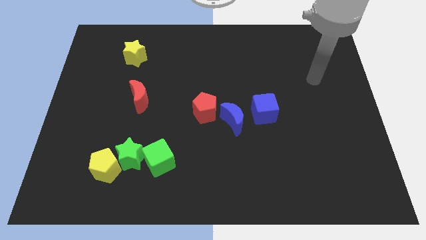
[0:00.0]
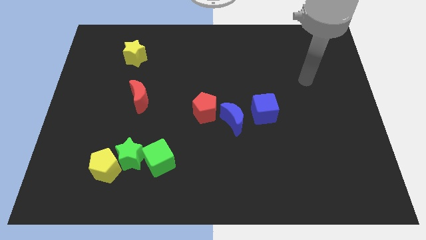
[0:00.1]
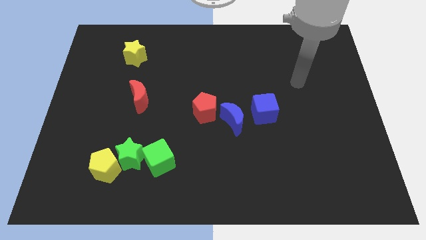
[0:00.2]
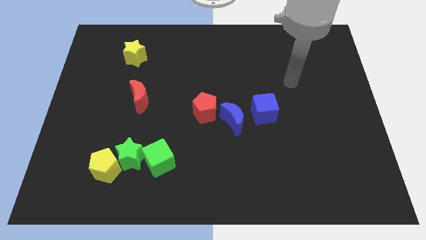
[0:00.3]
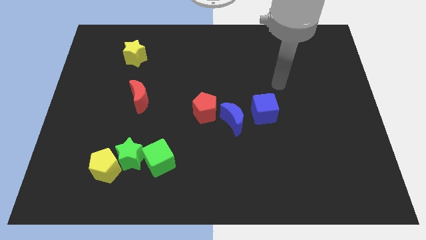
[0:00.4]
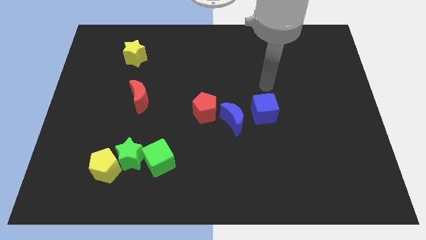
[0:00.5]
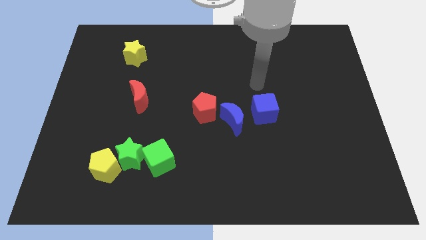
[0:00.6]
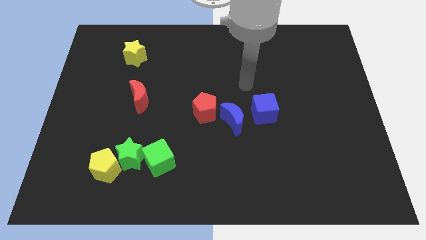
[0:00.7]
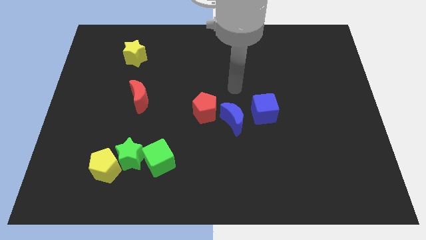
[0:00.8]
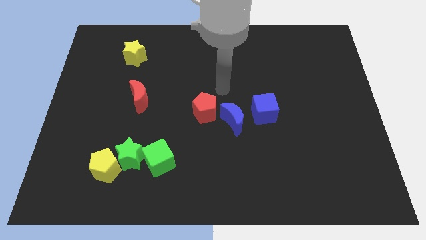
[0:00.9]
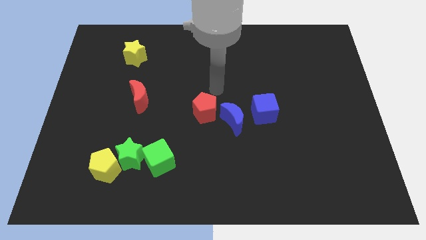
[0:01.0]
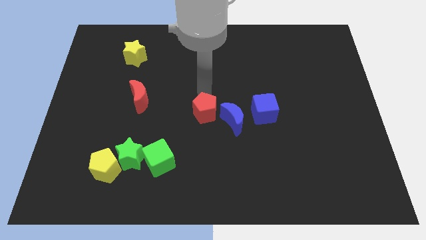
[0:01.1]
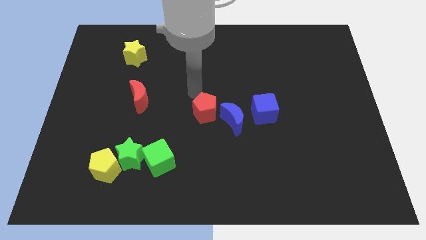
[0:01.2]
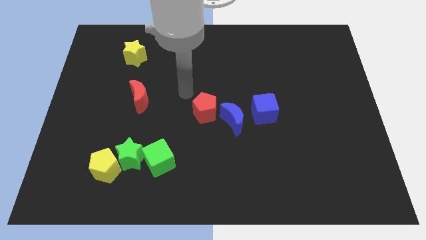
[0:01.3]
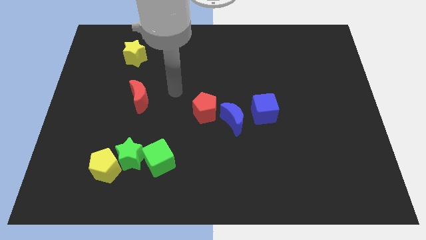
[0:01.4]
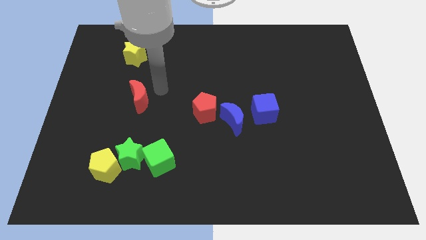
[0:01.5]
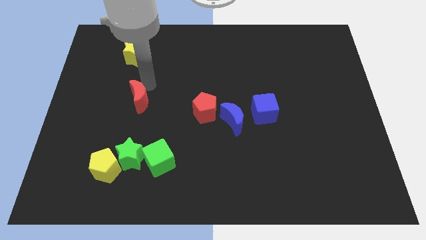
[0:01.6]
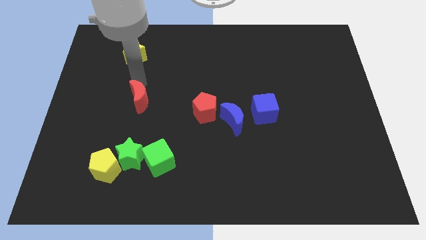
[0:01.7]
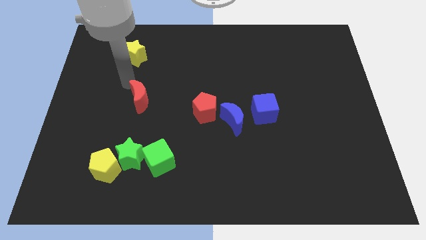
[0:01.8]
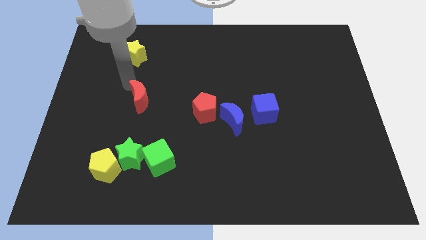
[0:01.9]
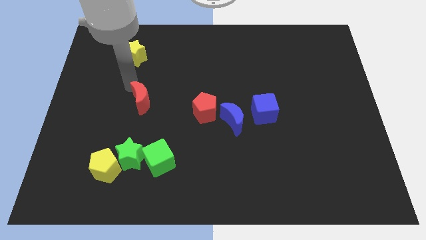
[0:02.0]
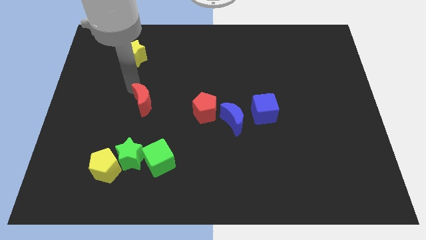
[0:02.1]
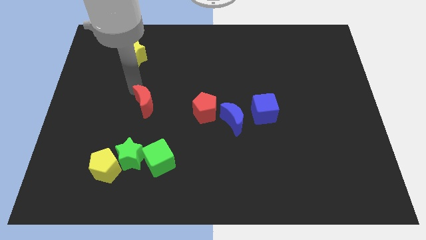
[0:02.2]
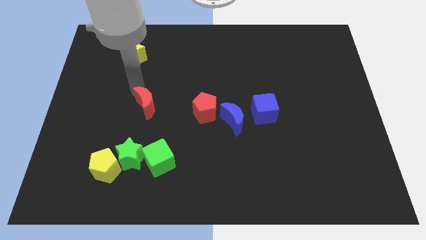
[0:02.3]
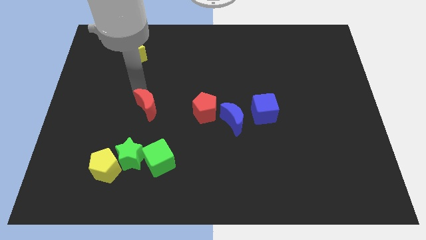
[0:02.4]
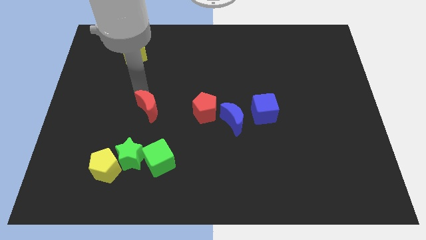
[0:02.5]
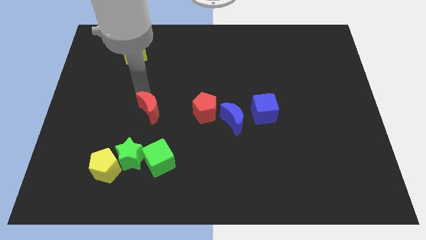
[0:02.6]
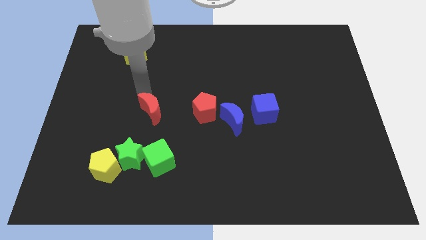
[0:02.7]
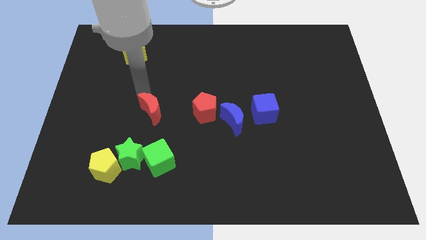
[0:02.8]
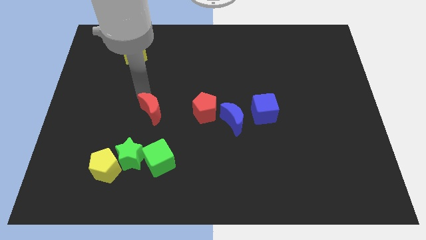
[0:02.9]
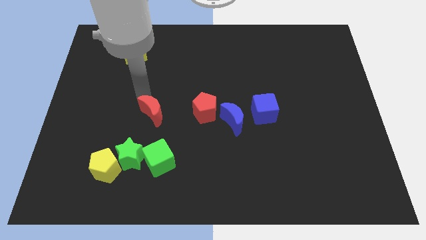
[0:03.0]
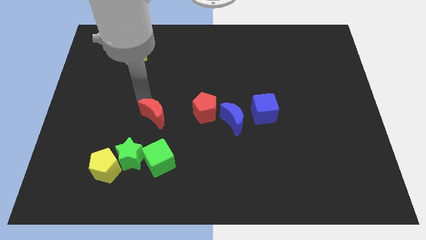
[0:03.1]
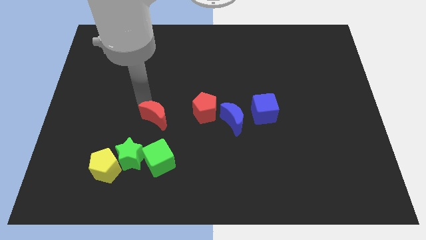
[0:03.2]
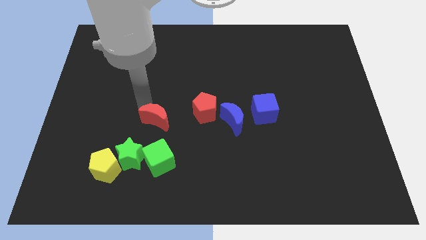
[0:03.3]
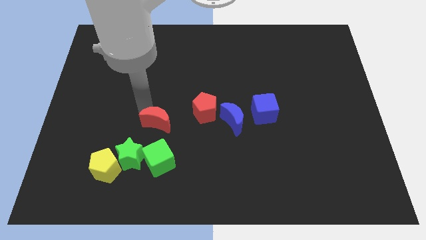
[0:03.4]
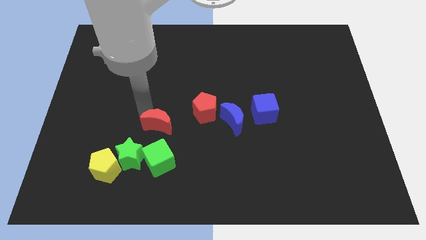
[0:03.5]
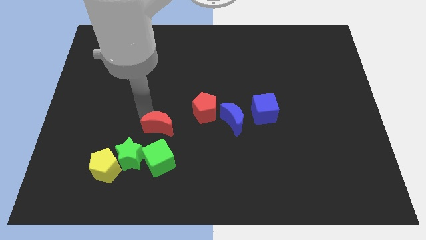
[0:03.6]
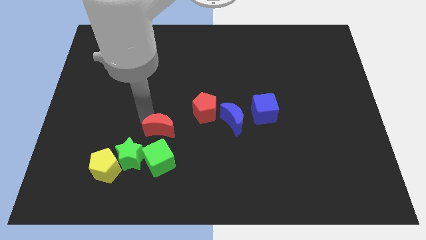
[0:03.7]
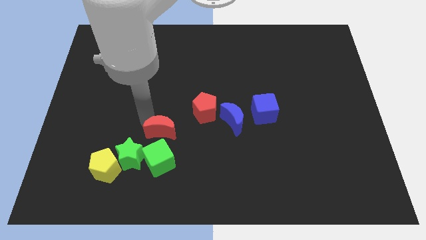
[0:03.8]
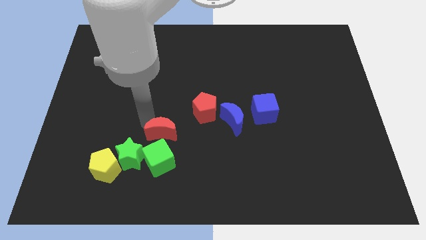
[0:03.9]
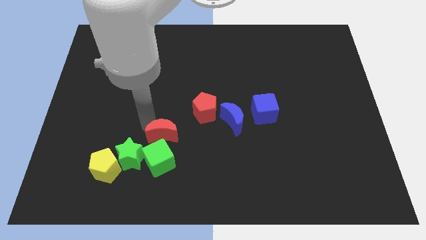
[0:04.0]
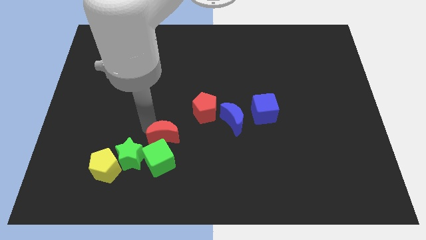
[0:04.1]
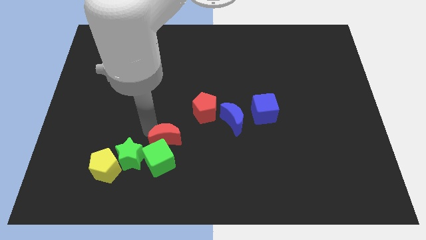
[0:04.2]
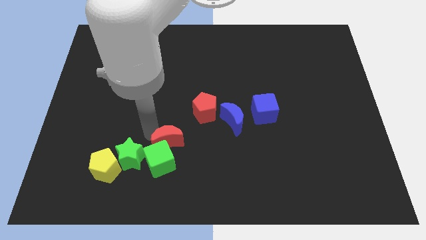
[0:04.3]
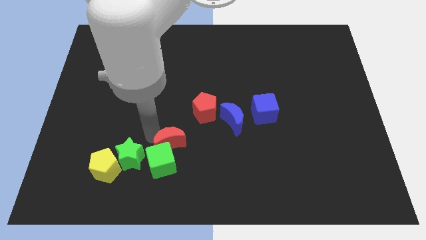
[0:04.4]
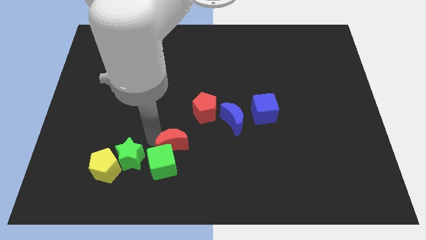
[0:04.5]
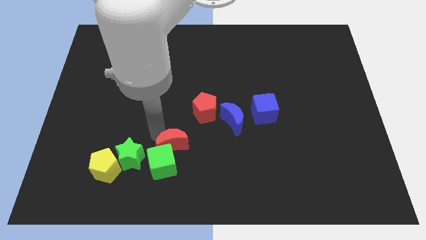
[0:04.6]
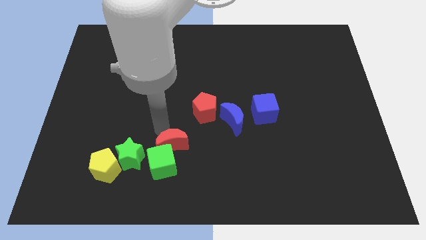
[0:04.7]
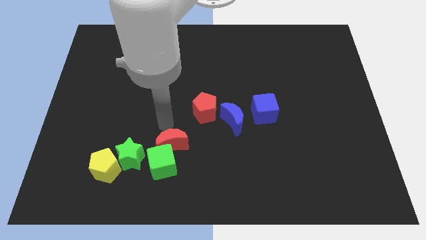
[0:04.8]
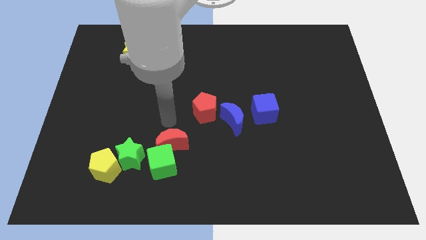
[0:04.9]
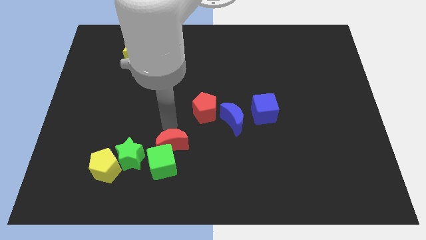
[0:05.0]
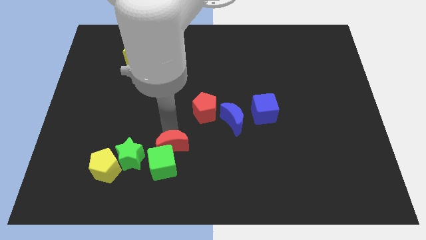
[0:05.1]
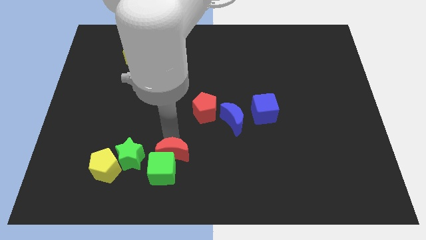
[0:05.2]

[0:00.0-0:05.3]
move the red moon to the right of the yellow pentagon

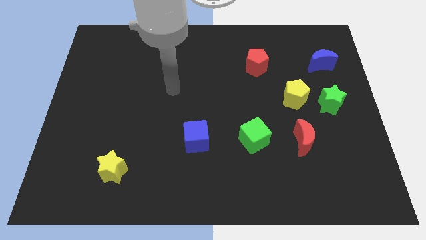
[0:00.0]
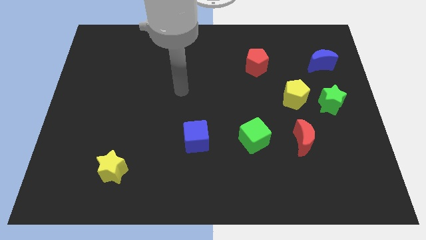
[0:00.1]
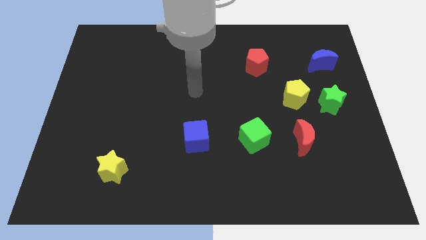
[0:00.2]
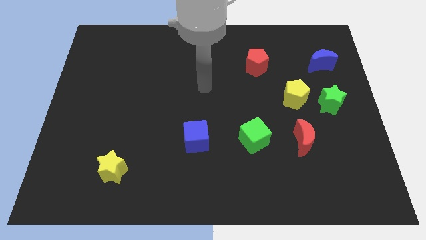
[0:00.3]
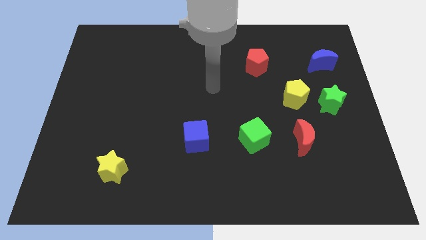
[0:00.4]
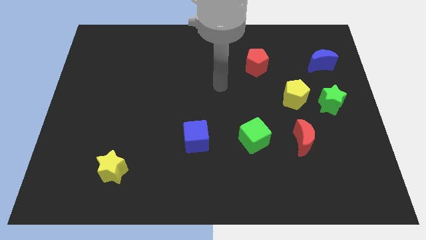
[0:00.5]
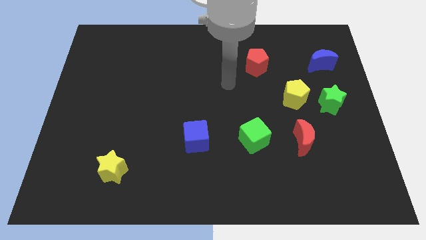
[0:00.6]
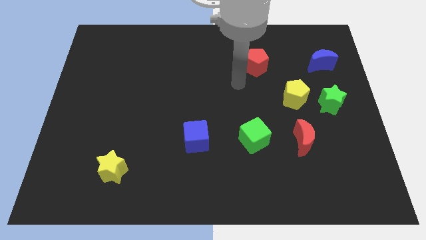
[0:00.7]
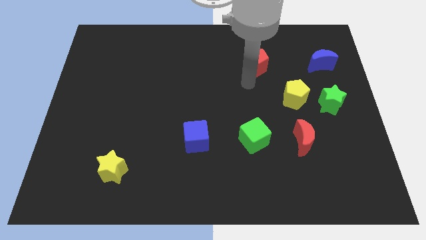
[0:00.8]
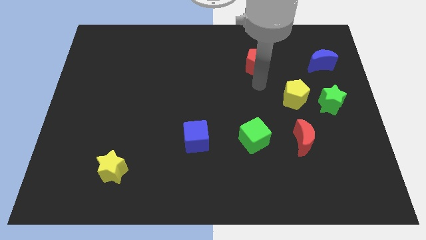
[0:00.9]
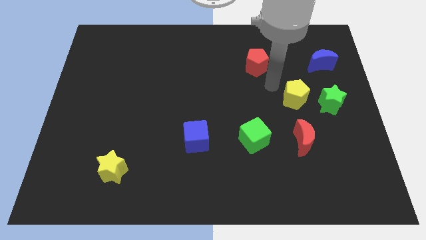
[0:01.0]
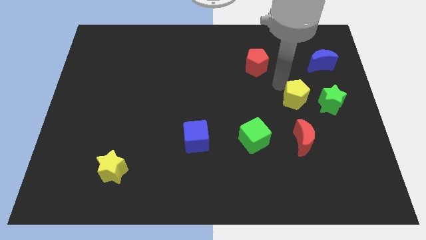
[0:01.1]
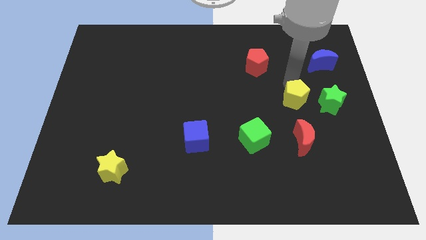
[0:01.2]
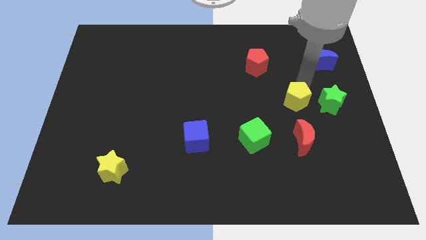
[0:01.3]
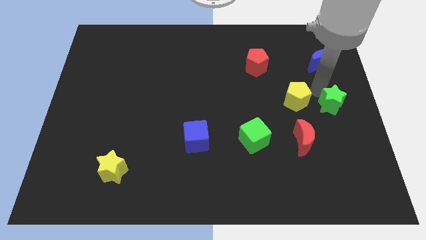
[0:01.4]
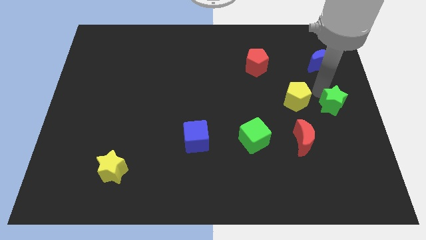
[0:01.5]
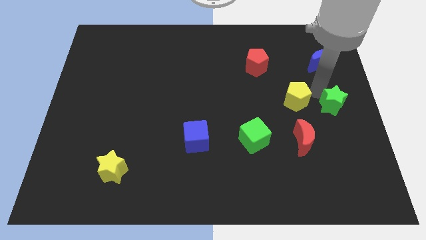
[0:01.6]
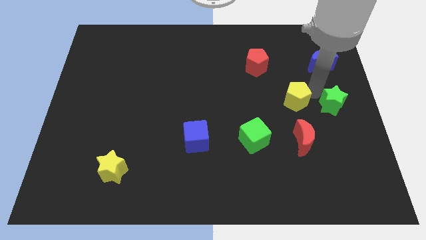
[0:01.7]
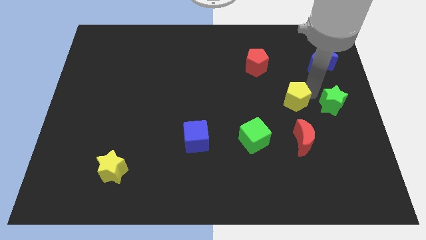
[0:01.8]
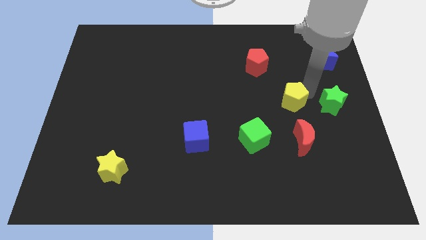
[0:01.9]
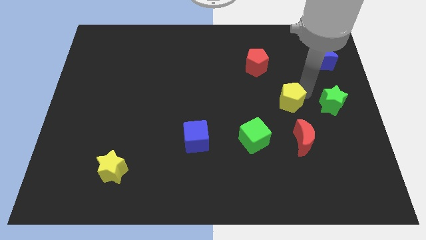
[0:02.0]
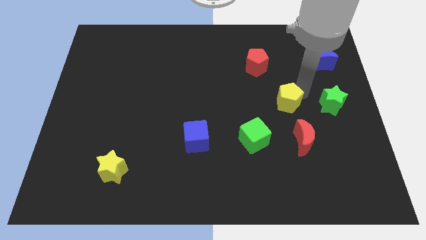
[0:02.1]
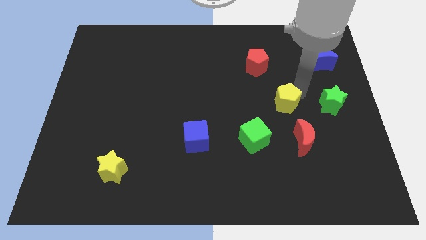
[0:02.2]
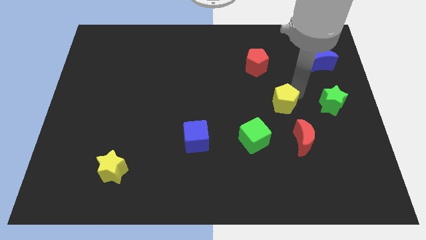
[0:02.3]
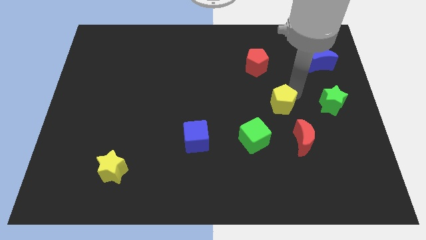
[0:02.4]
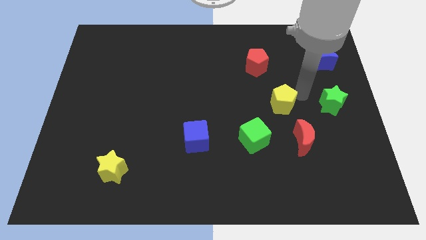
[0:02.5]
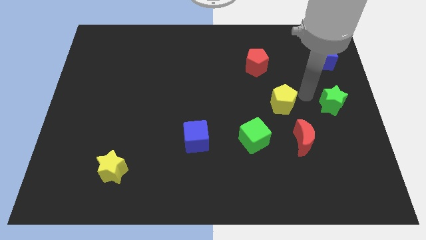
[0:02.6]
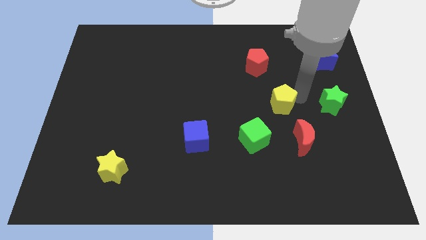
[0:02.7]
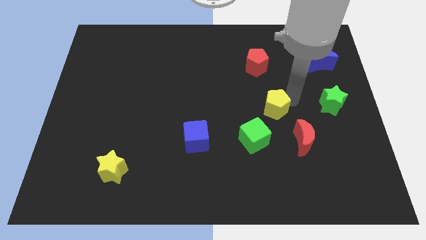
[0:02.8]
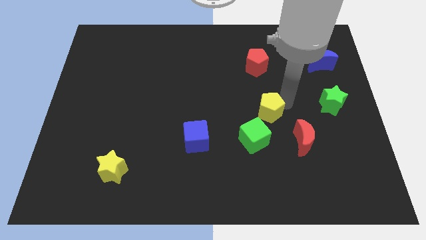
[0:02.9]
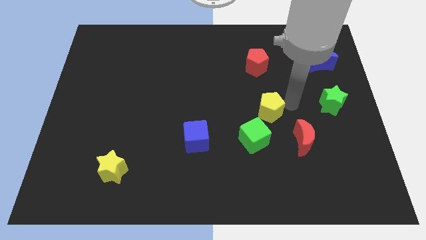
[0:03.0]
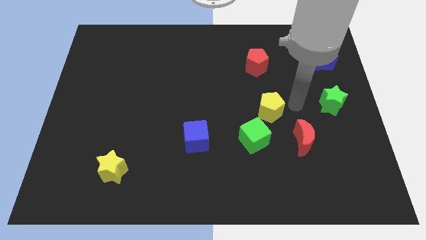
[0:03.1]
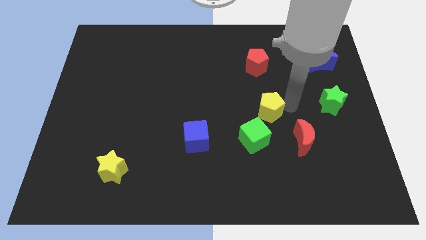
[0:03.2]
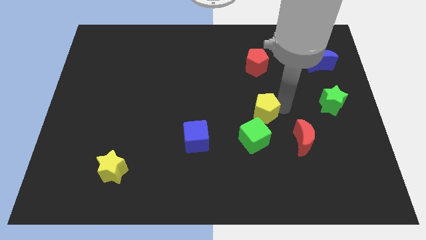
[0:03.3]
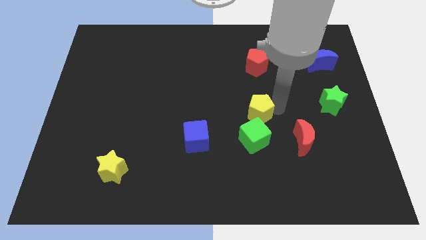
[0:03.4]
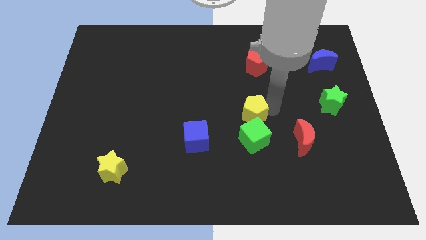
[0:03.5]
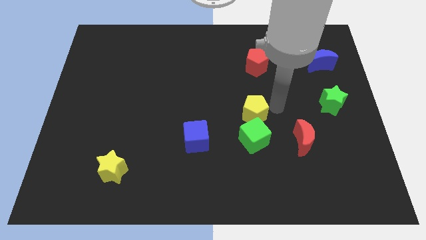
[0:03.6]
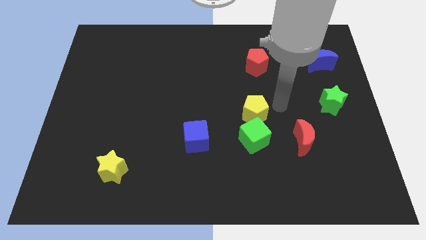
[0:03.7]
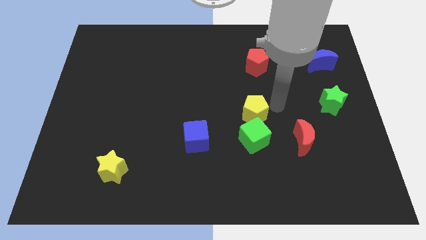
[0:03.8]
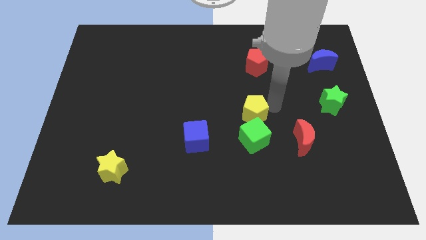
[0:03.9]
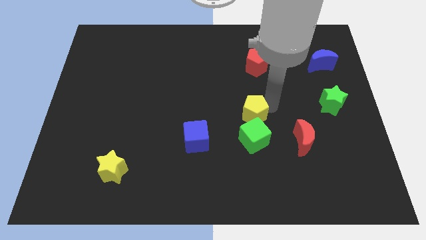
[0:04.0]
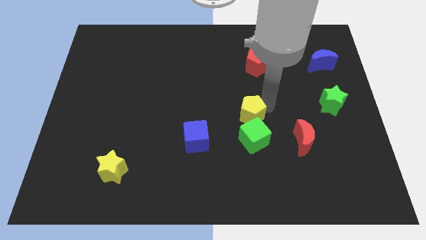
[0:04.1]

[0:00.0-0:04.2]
slide the yellow pentagon diagonally up and to the left of the green cube
